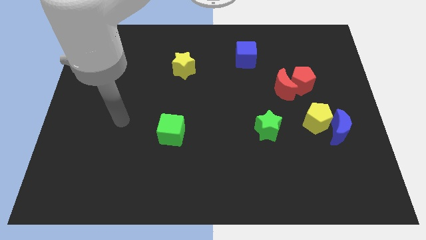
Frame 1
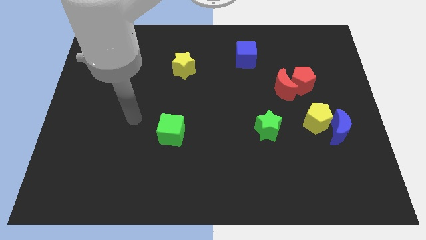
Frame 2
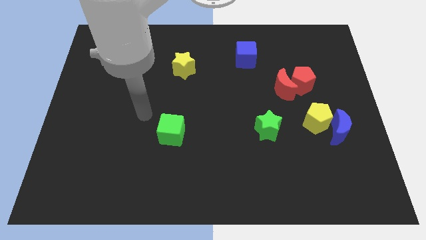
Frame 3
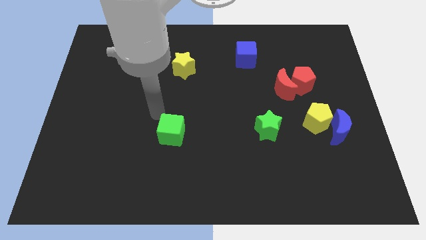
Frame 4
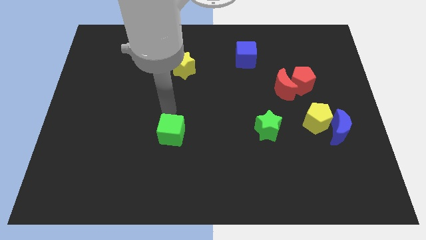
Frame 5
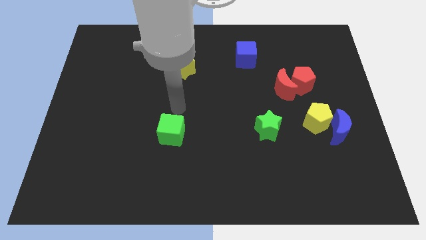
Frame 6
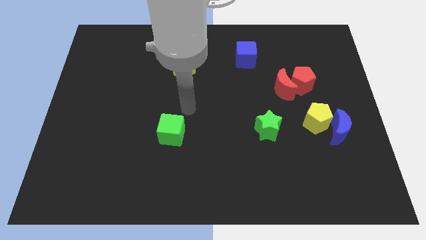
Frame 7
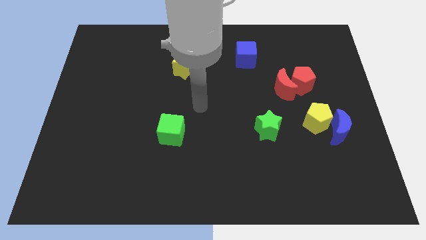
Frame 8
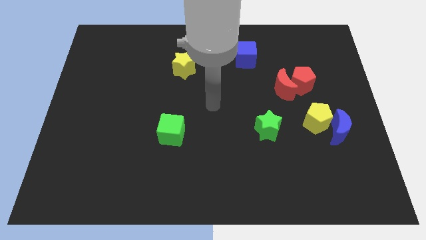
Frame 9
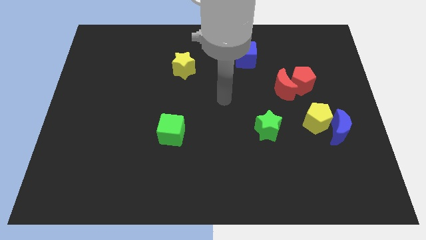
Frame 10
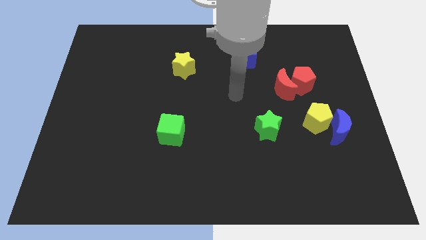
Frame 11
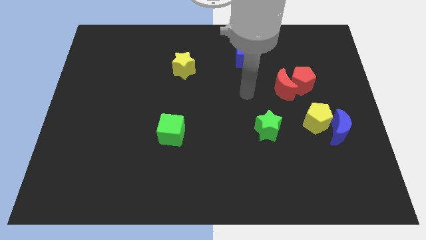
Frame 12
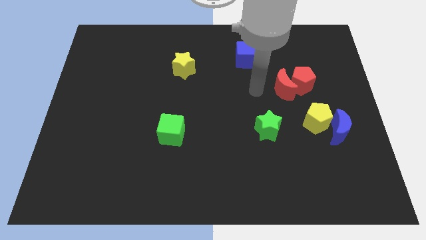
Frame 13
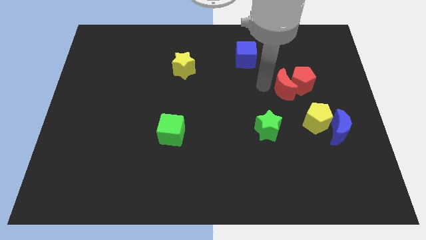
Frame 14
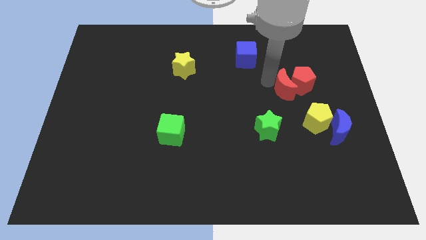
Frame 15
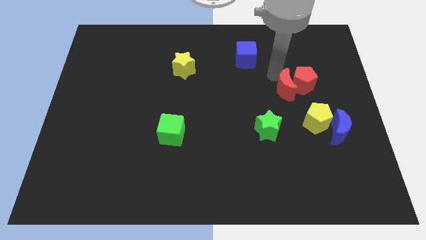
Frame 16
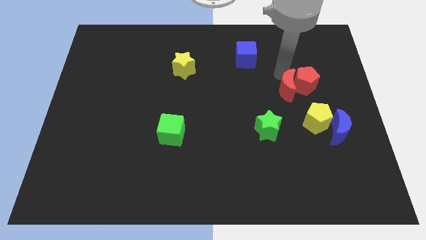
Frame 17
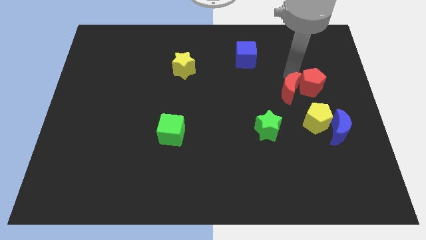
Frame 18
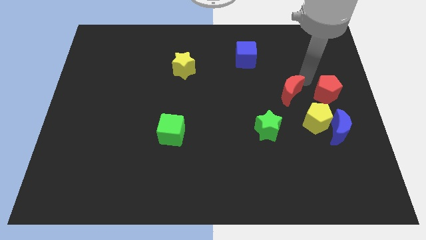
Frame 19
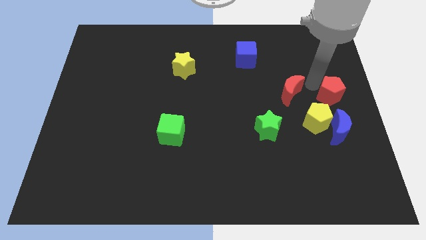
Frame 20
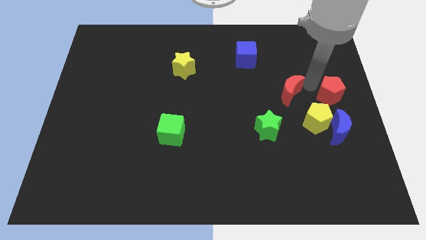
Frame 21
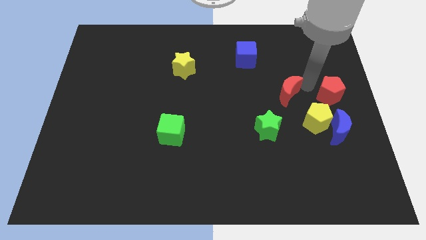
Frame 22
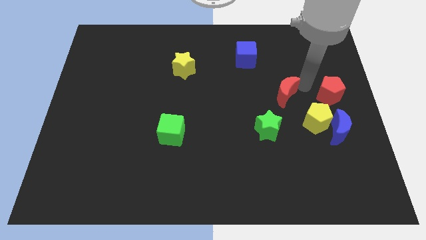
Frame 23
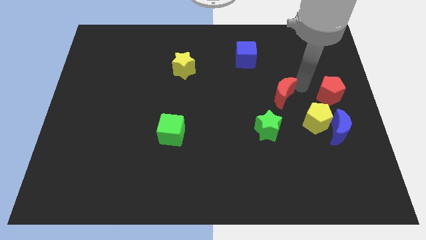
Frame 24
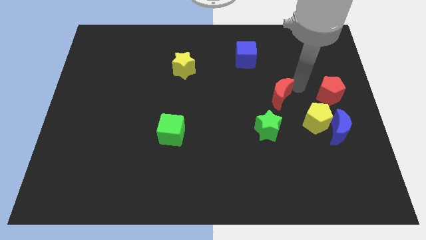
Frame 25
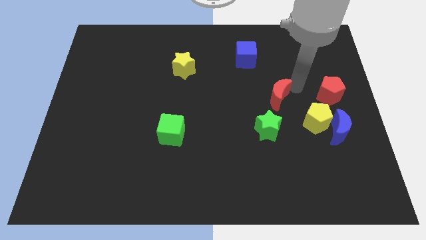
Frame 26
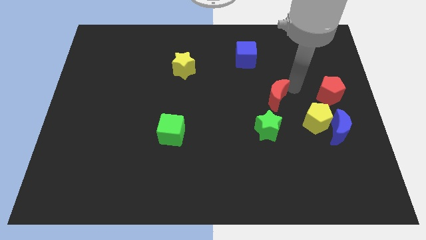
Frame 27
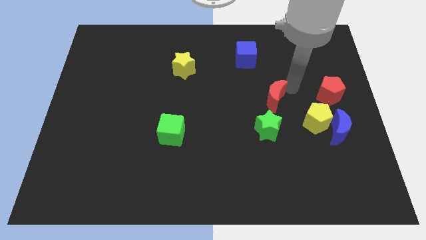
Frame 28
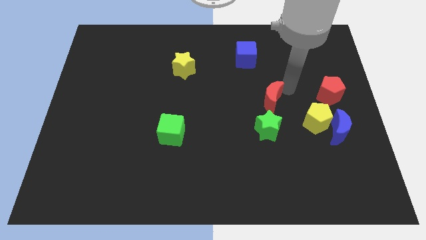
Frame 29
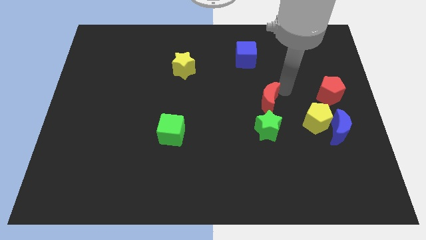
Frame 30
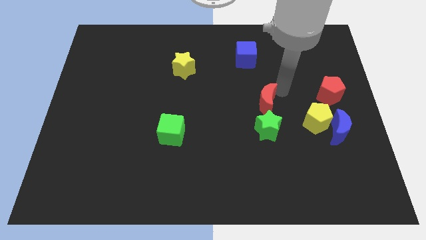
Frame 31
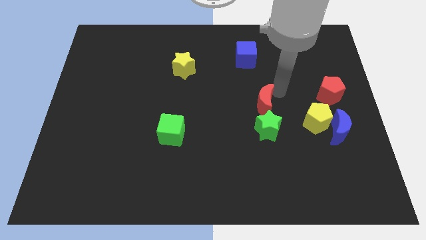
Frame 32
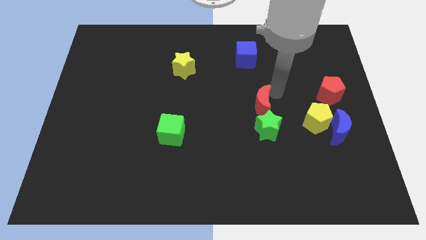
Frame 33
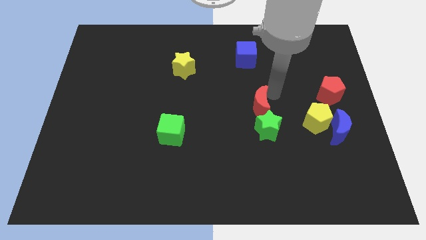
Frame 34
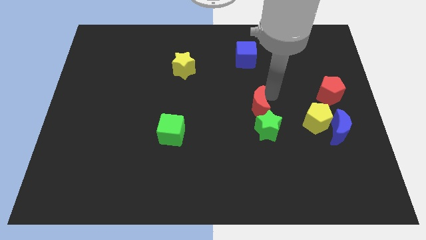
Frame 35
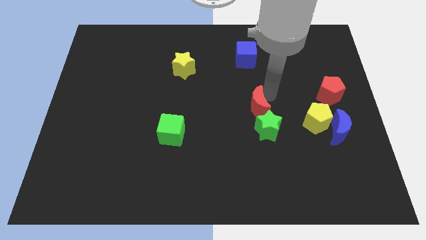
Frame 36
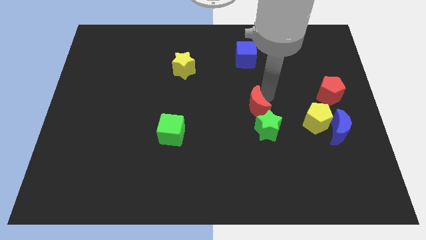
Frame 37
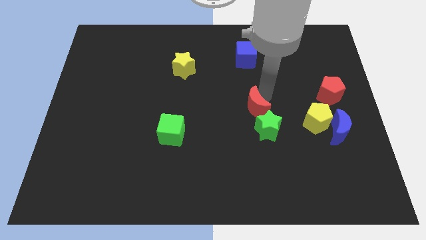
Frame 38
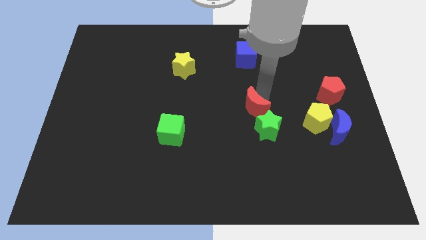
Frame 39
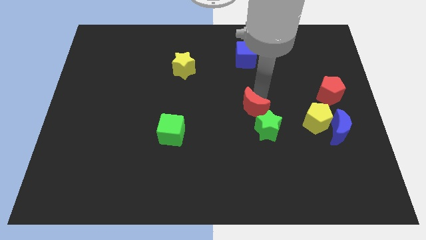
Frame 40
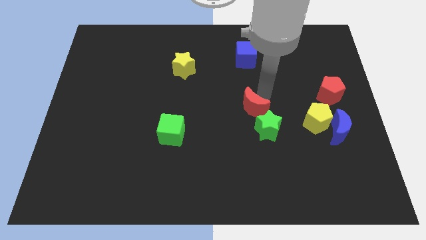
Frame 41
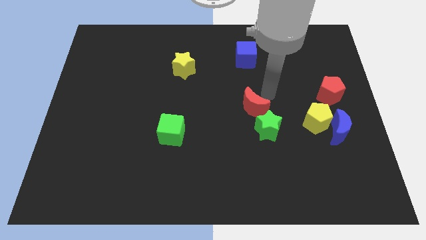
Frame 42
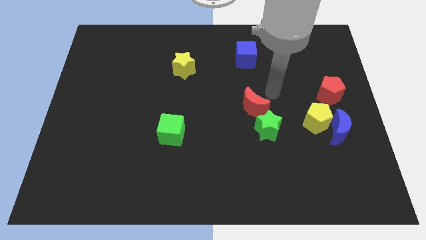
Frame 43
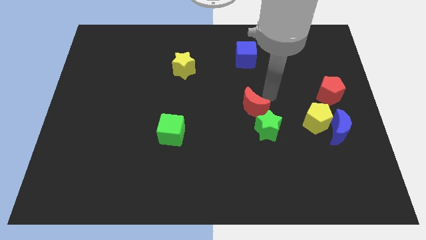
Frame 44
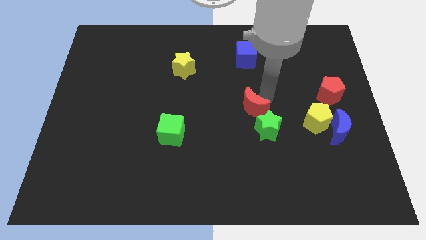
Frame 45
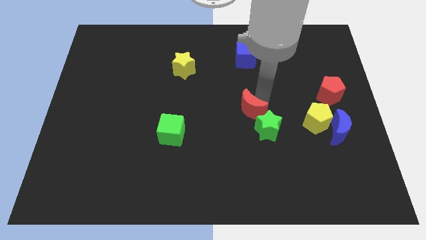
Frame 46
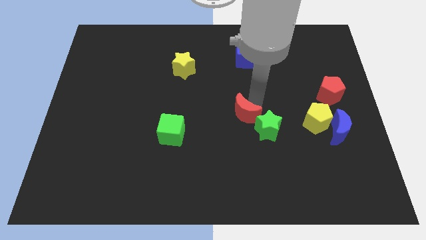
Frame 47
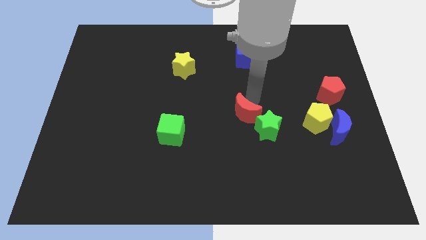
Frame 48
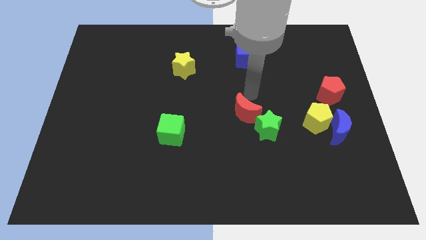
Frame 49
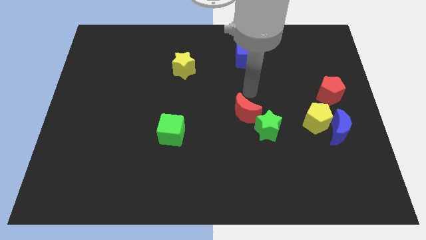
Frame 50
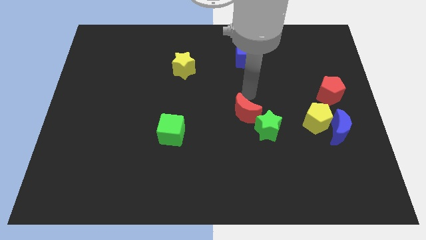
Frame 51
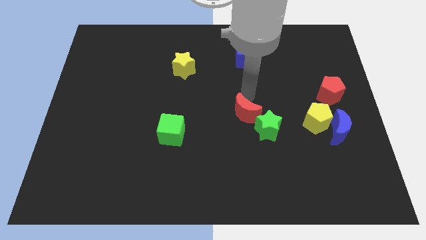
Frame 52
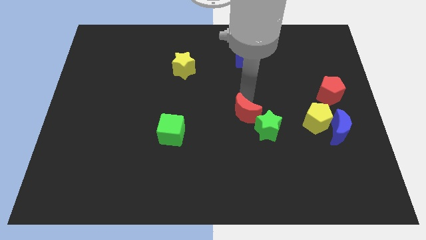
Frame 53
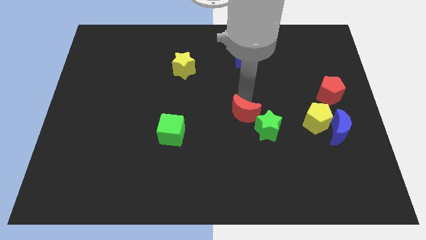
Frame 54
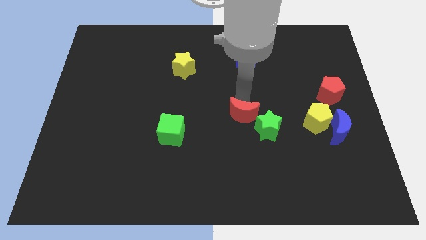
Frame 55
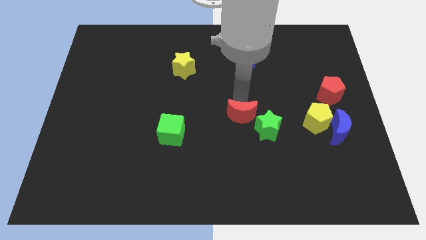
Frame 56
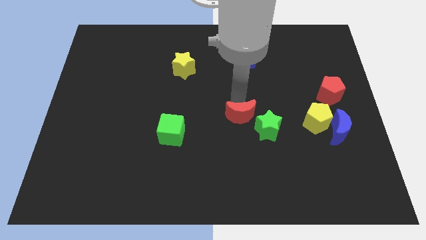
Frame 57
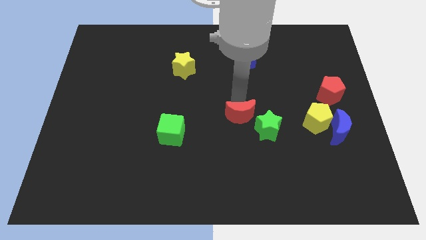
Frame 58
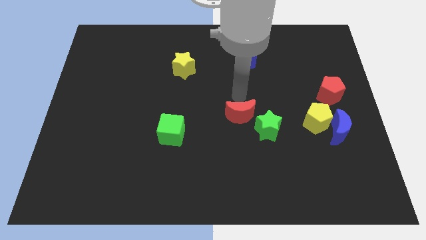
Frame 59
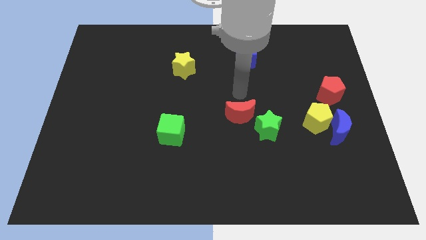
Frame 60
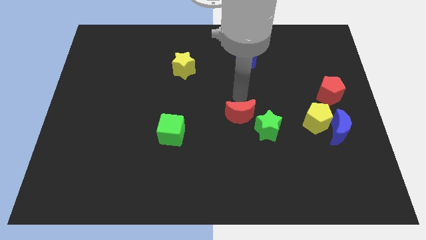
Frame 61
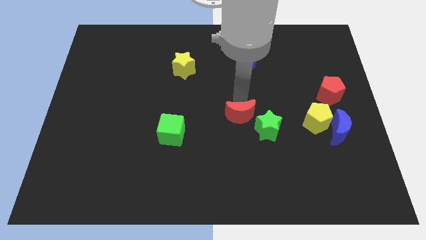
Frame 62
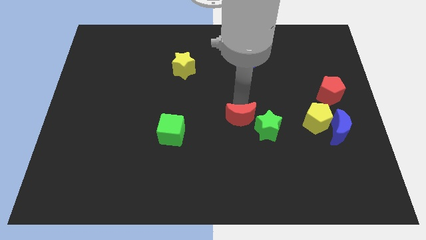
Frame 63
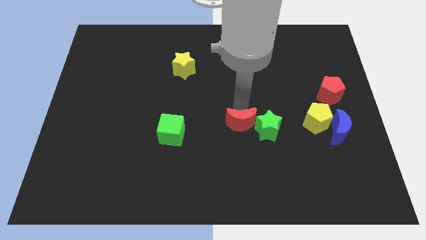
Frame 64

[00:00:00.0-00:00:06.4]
push the red moon right of the green cube

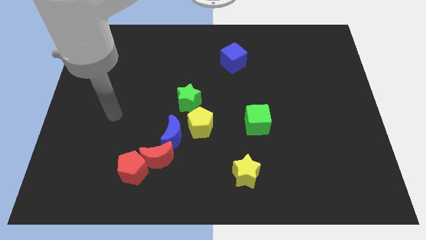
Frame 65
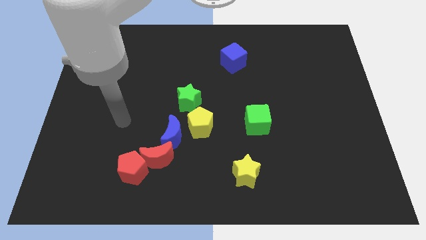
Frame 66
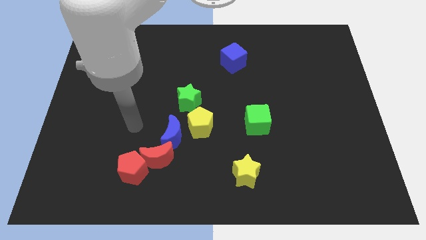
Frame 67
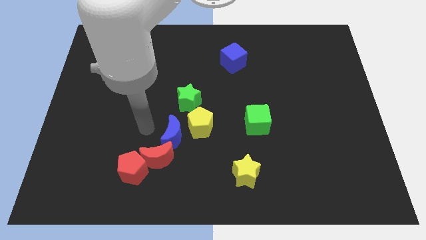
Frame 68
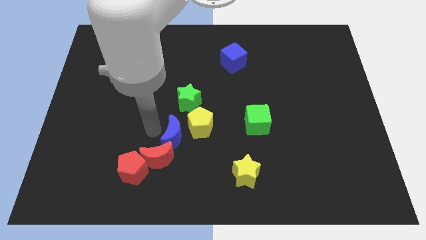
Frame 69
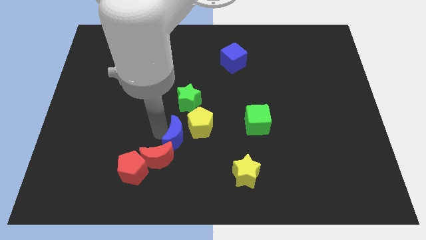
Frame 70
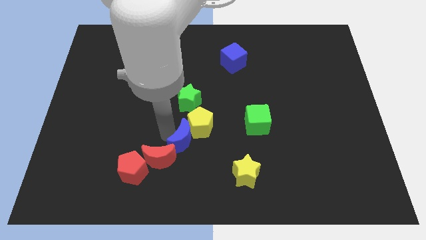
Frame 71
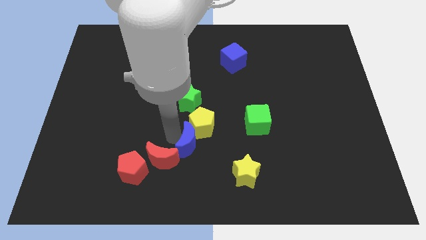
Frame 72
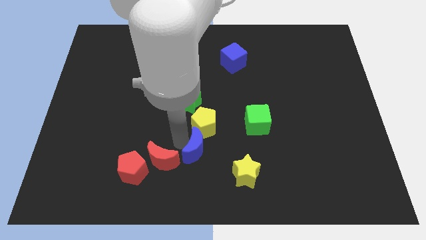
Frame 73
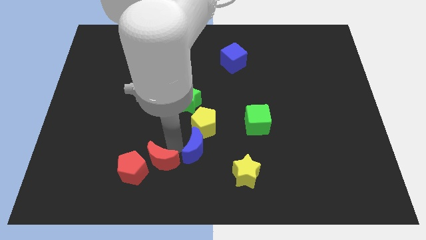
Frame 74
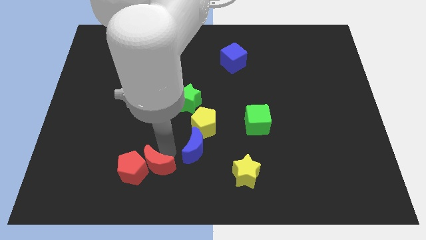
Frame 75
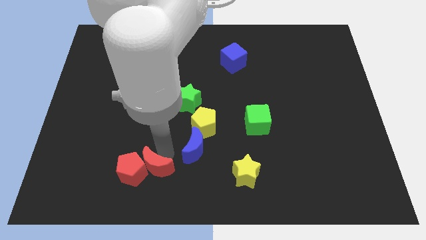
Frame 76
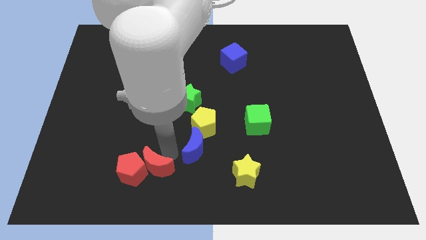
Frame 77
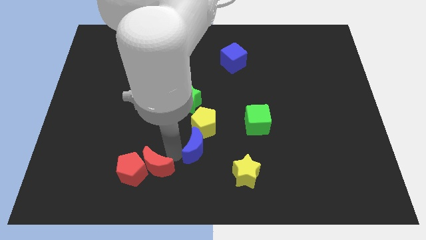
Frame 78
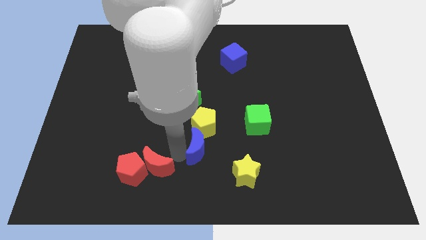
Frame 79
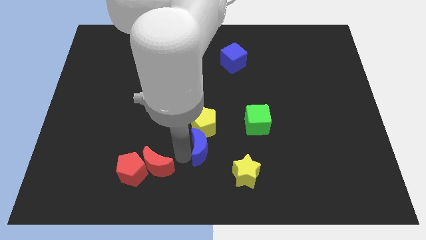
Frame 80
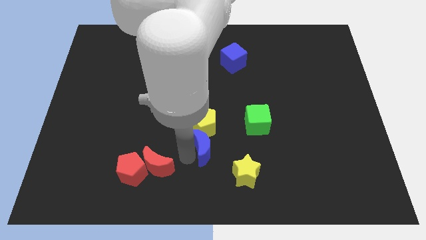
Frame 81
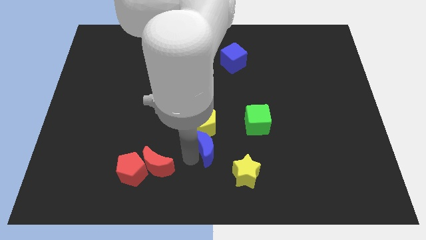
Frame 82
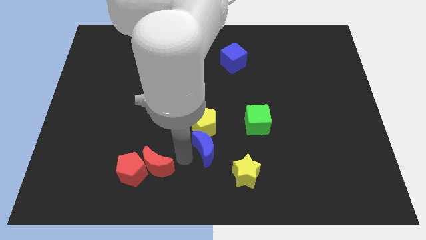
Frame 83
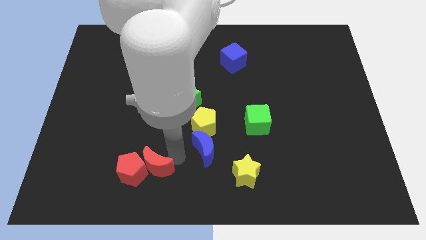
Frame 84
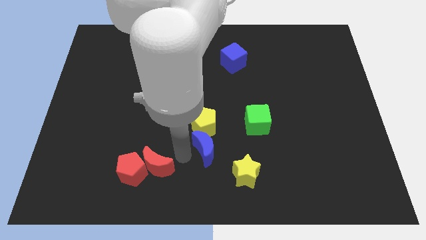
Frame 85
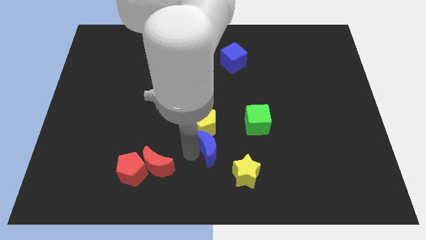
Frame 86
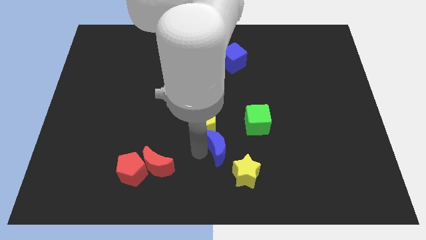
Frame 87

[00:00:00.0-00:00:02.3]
move the blue moon diagonally down and to the left of the green cube
